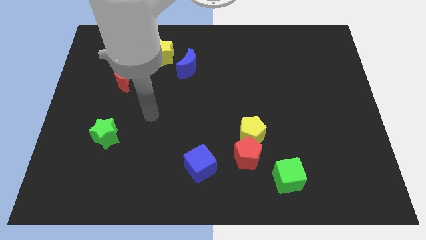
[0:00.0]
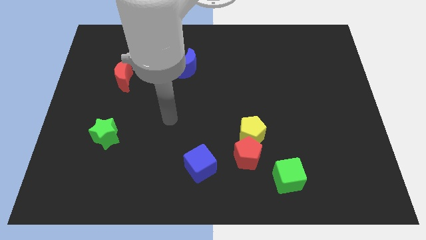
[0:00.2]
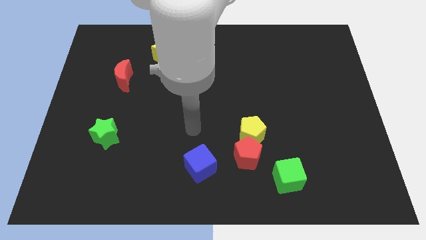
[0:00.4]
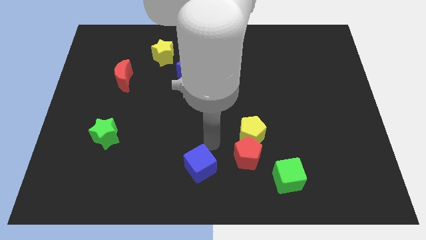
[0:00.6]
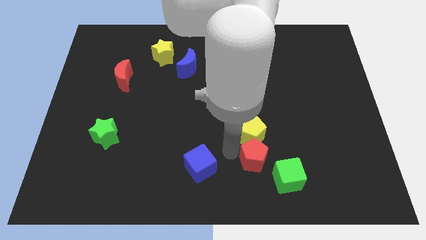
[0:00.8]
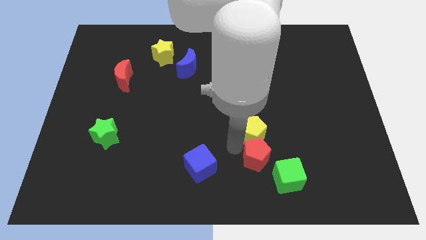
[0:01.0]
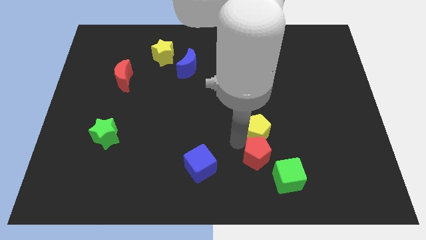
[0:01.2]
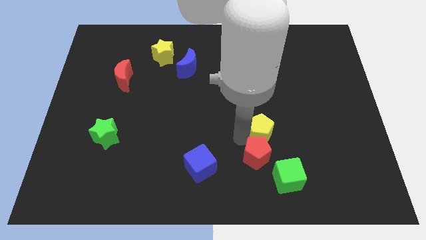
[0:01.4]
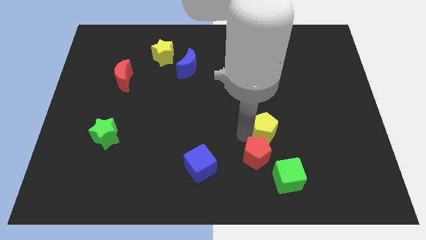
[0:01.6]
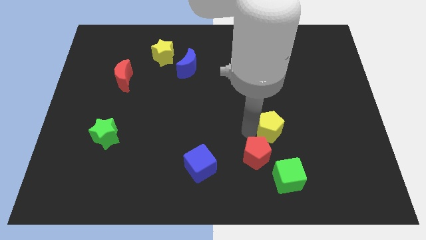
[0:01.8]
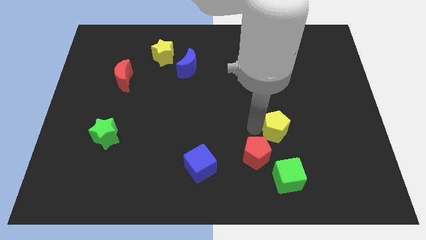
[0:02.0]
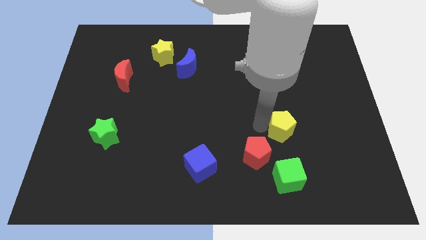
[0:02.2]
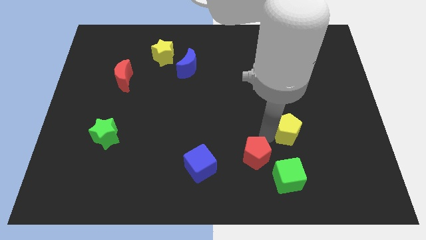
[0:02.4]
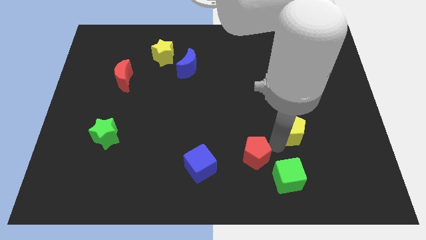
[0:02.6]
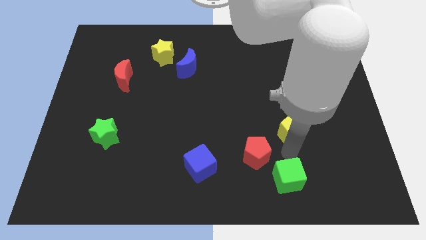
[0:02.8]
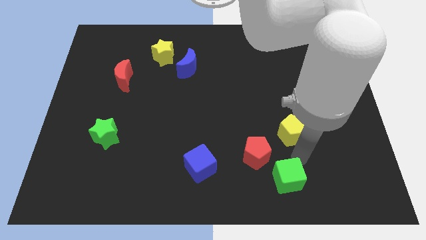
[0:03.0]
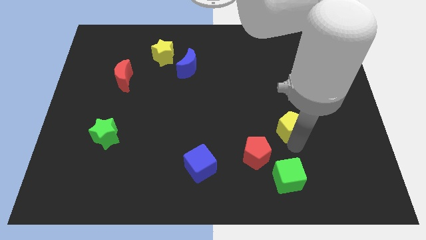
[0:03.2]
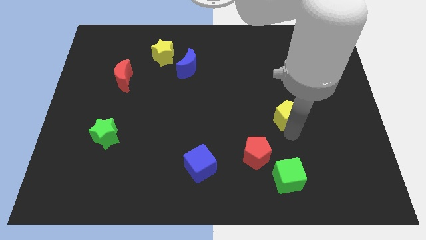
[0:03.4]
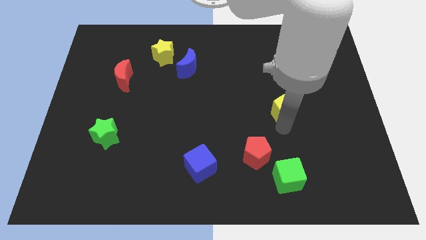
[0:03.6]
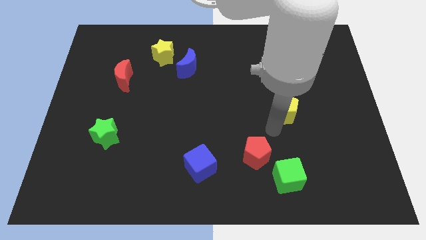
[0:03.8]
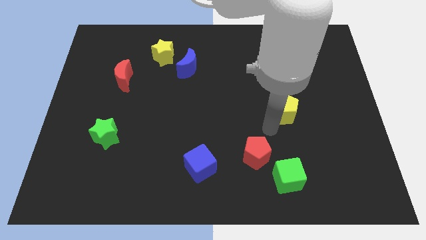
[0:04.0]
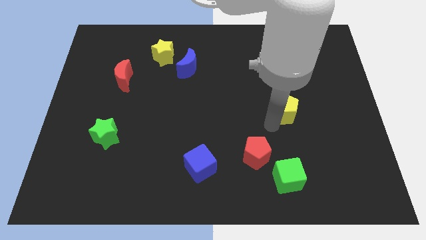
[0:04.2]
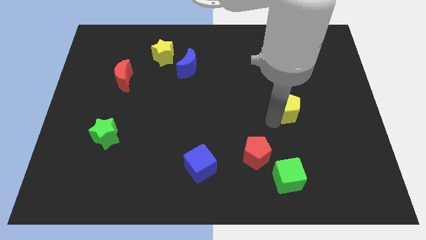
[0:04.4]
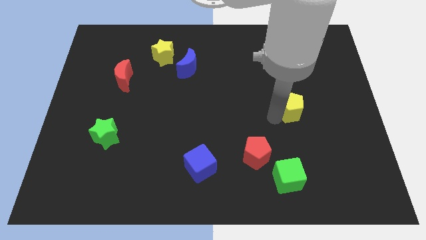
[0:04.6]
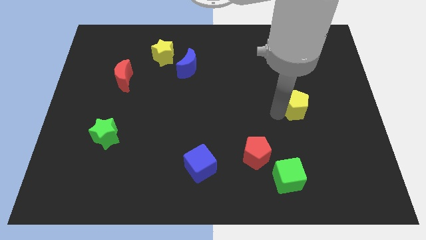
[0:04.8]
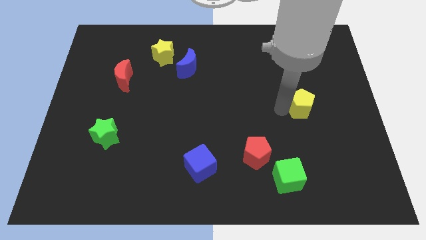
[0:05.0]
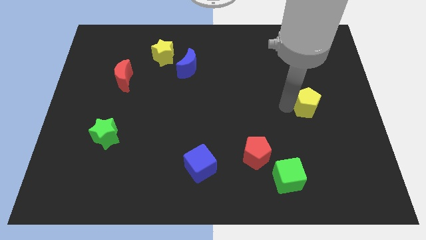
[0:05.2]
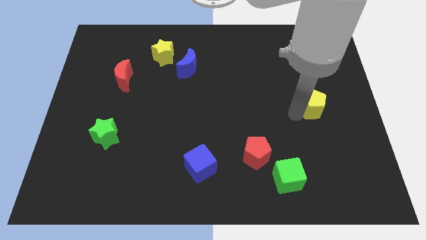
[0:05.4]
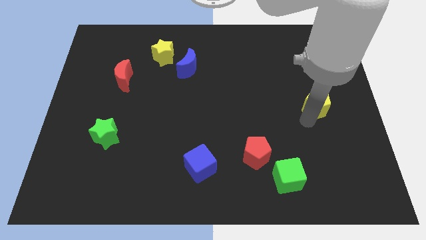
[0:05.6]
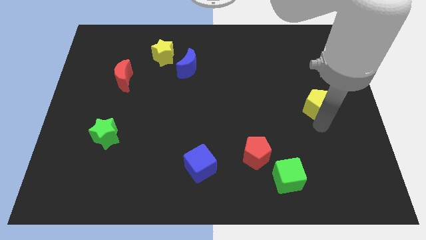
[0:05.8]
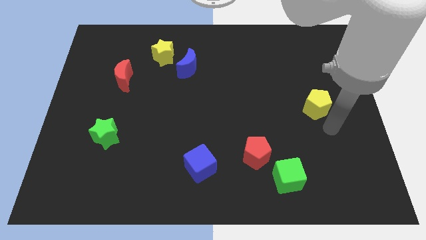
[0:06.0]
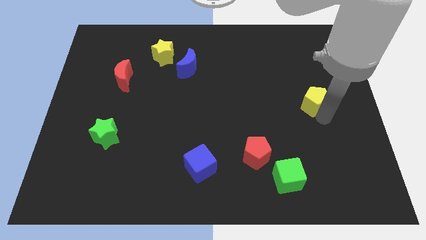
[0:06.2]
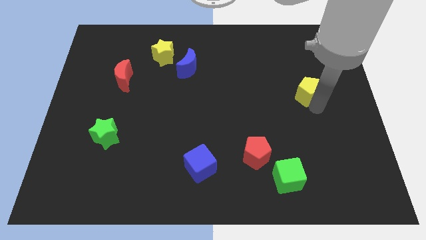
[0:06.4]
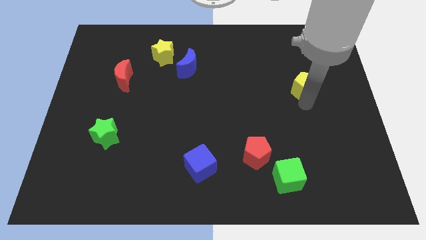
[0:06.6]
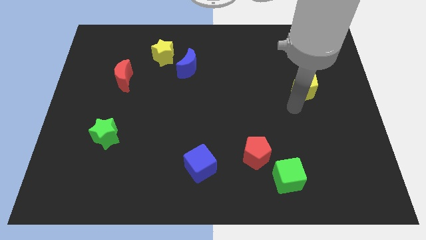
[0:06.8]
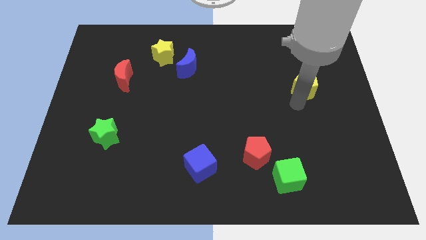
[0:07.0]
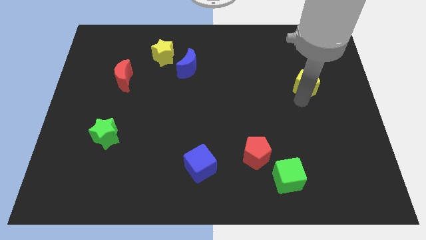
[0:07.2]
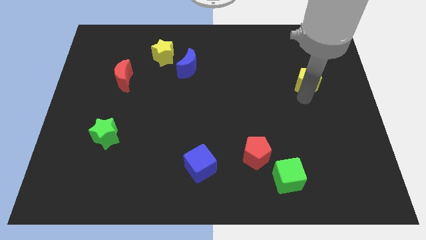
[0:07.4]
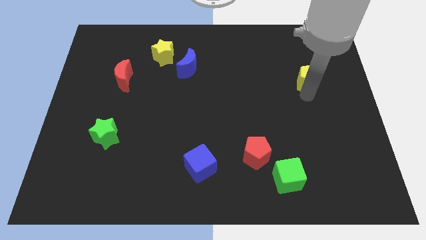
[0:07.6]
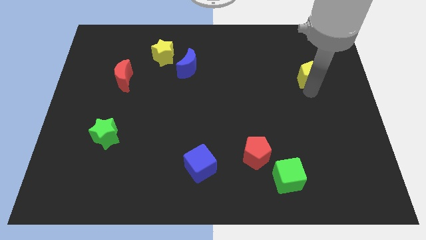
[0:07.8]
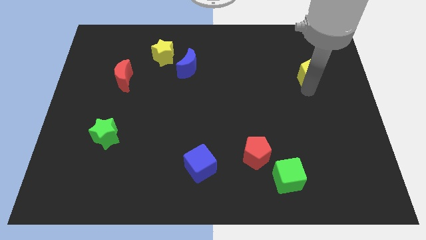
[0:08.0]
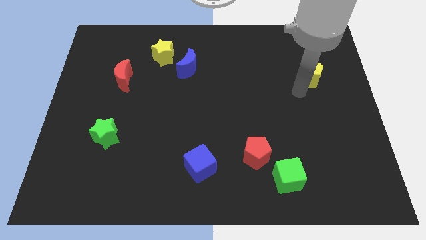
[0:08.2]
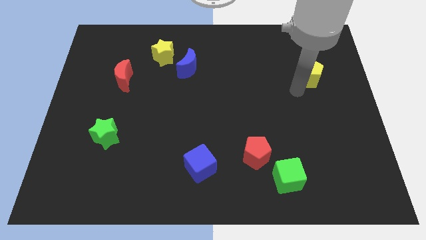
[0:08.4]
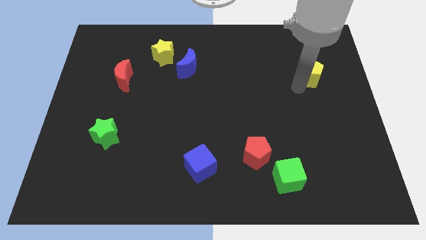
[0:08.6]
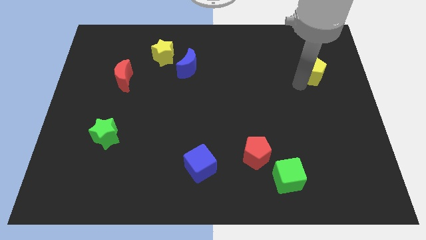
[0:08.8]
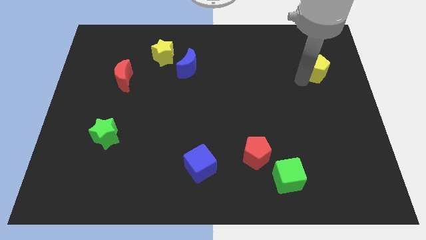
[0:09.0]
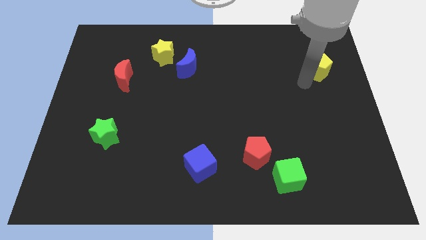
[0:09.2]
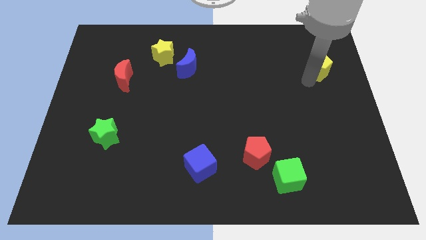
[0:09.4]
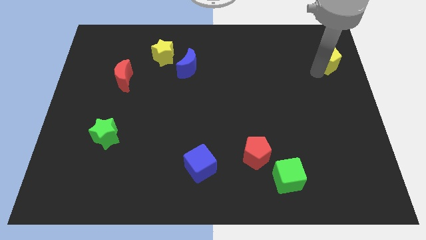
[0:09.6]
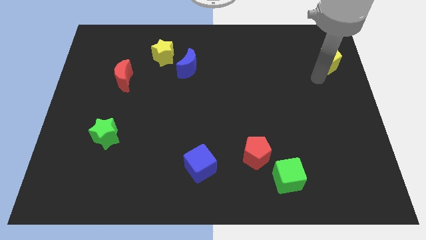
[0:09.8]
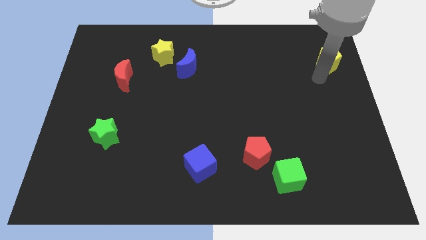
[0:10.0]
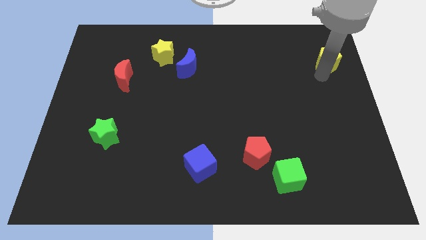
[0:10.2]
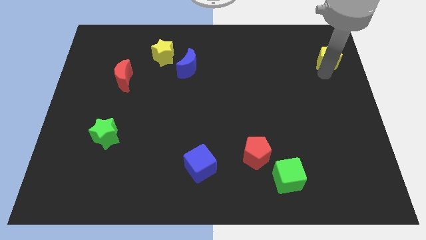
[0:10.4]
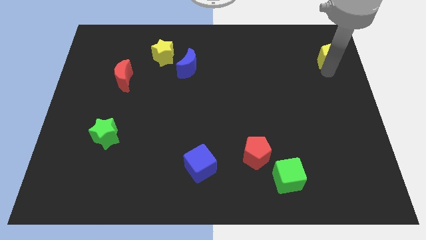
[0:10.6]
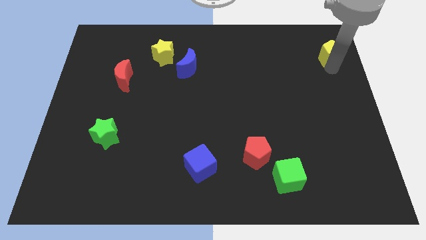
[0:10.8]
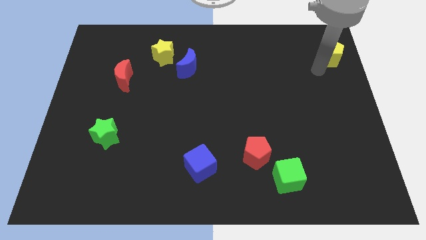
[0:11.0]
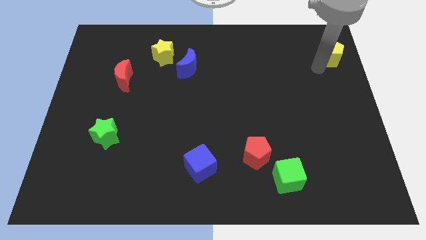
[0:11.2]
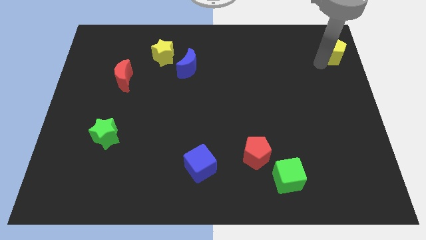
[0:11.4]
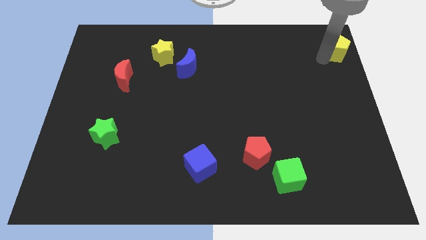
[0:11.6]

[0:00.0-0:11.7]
slide the yellow pentagon to the top right corner

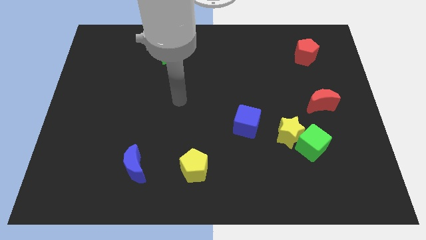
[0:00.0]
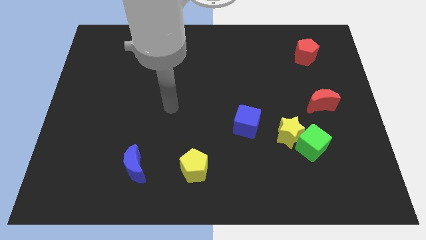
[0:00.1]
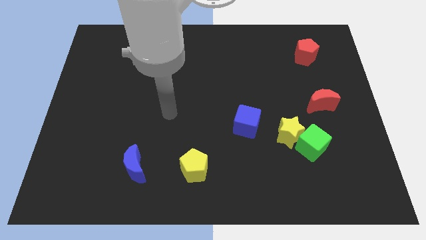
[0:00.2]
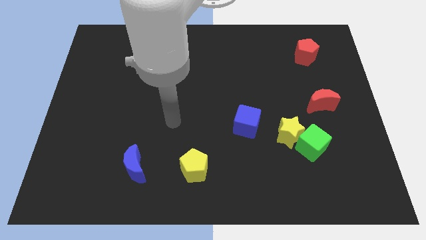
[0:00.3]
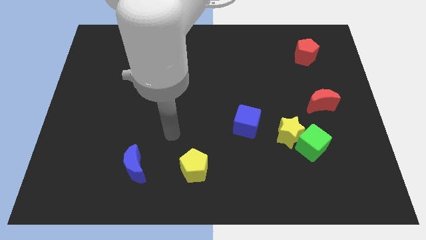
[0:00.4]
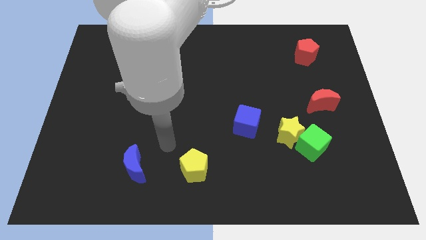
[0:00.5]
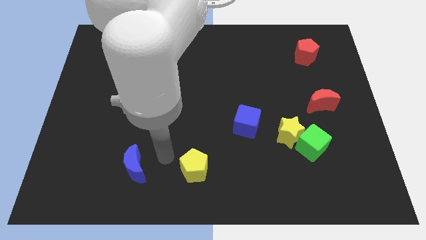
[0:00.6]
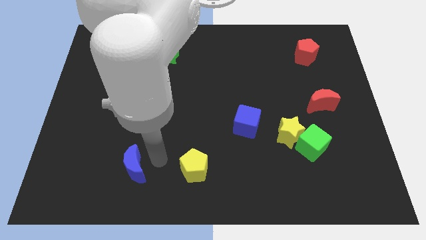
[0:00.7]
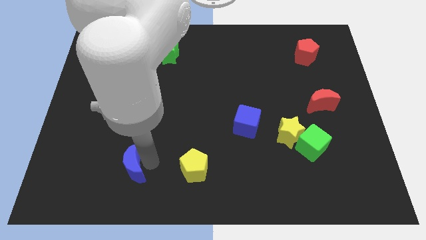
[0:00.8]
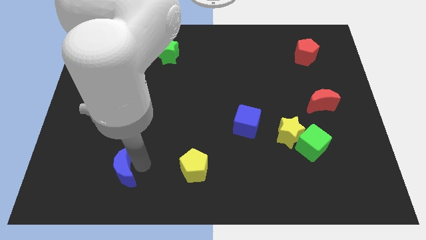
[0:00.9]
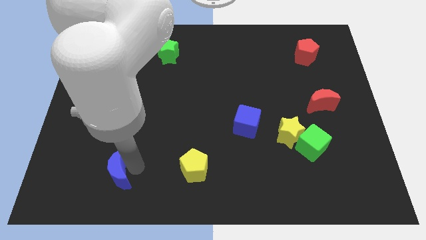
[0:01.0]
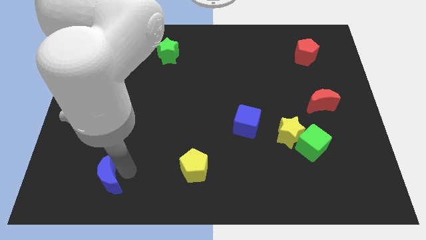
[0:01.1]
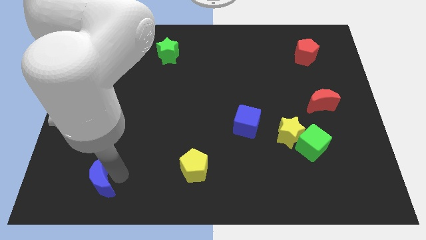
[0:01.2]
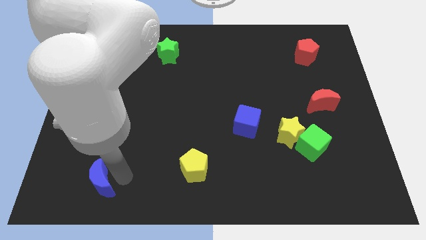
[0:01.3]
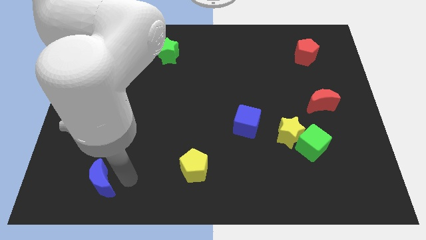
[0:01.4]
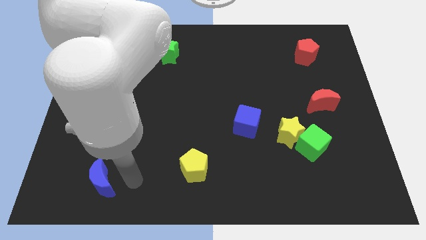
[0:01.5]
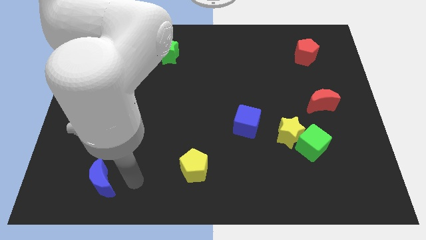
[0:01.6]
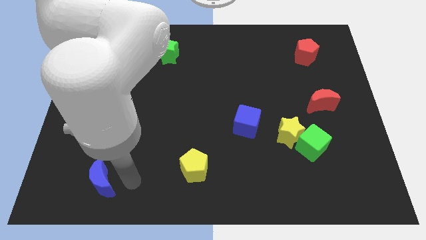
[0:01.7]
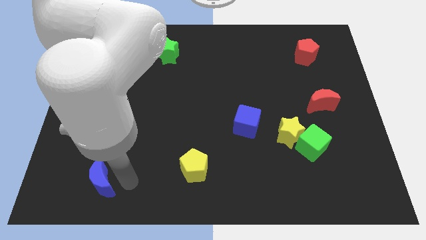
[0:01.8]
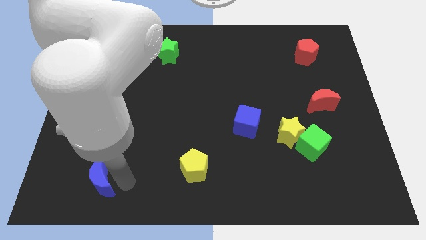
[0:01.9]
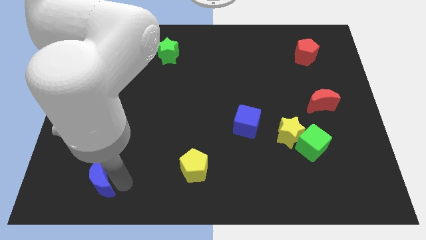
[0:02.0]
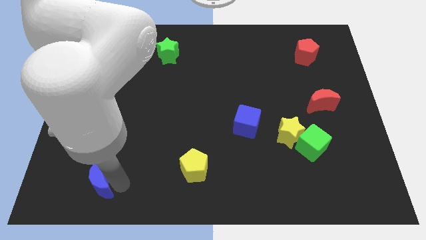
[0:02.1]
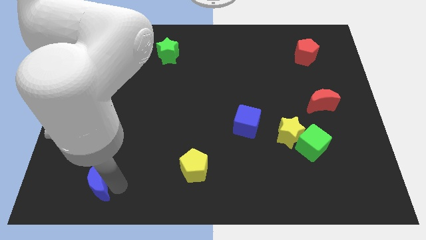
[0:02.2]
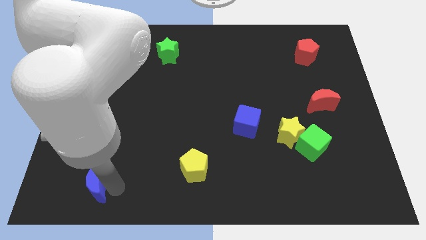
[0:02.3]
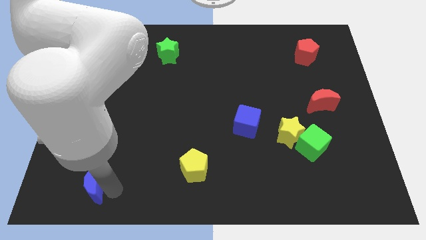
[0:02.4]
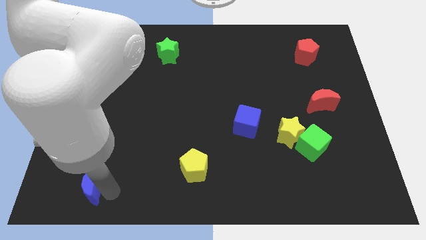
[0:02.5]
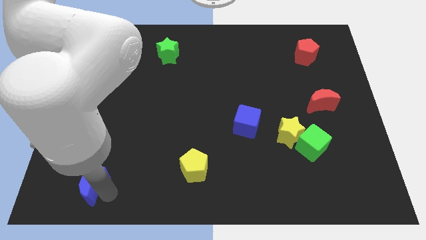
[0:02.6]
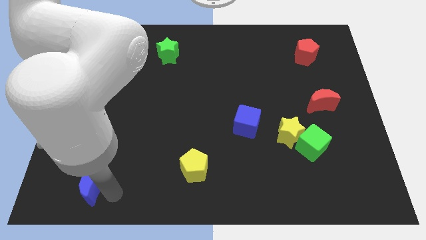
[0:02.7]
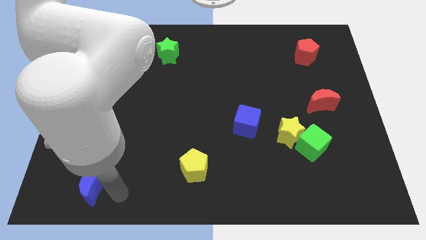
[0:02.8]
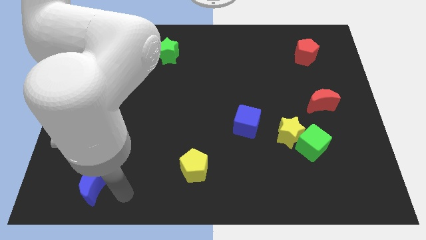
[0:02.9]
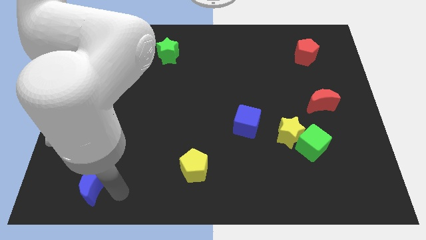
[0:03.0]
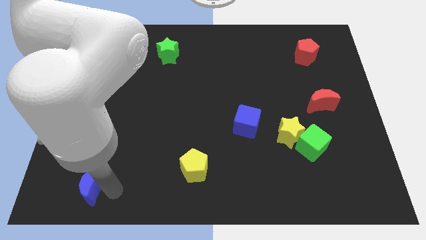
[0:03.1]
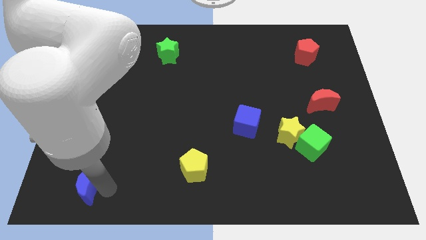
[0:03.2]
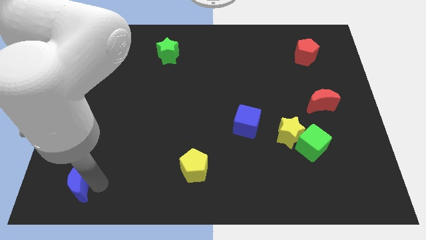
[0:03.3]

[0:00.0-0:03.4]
slide the blue moon to the bottom left corner
